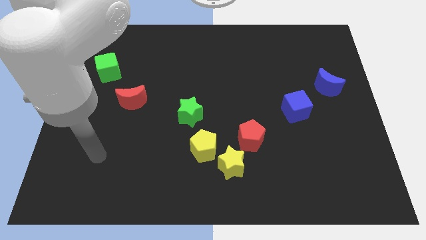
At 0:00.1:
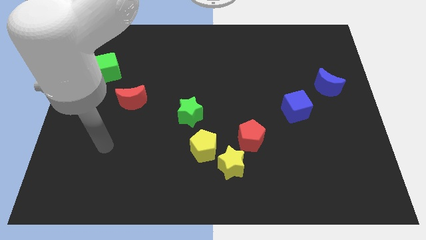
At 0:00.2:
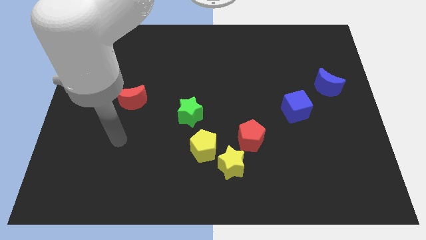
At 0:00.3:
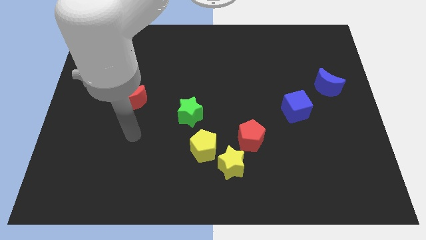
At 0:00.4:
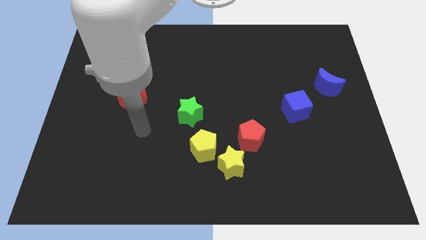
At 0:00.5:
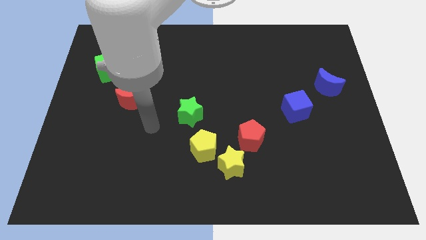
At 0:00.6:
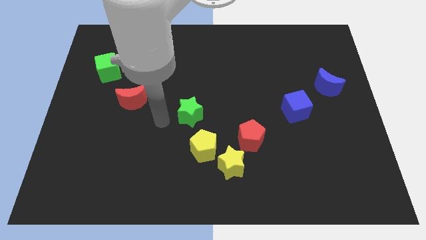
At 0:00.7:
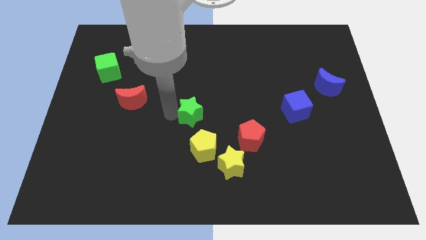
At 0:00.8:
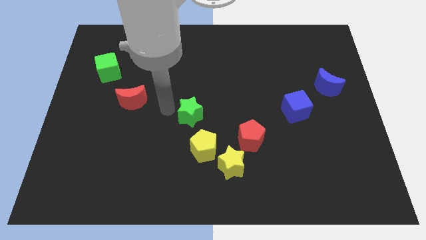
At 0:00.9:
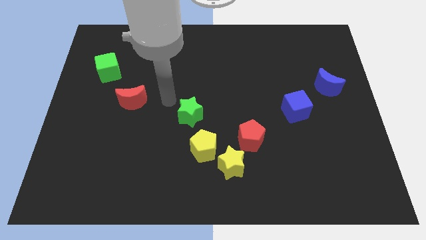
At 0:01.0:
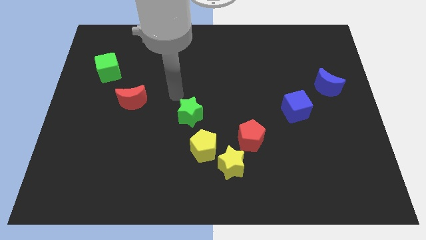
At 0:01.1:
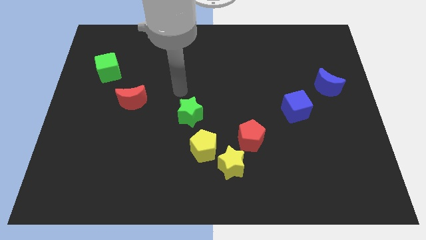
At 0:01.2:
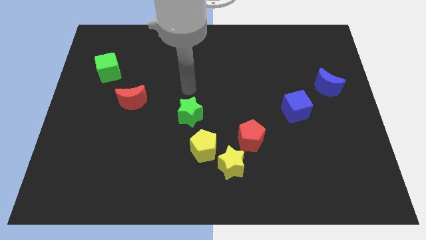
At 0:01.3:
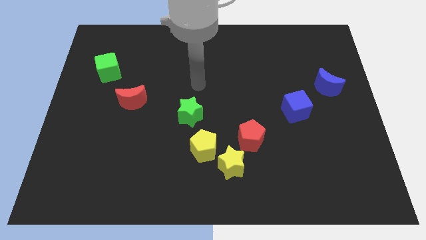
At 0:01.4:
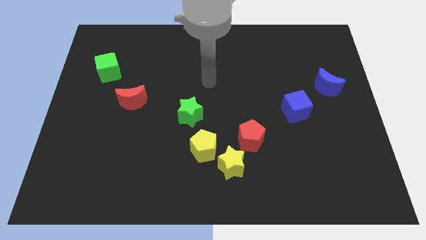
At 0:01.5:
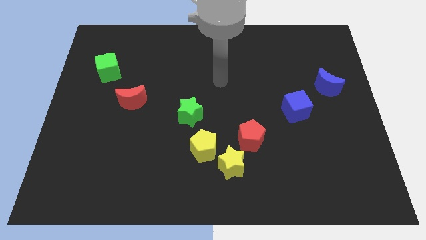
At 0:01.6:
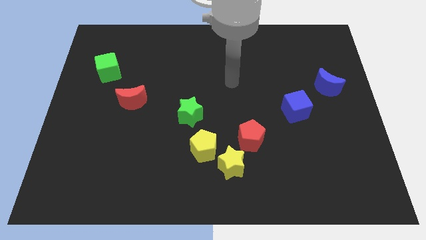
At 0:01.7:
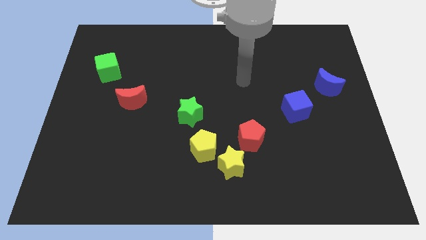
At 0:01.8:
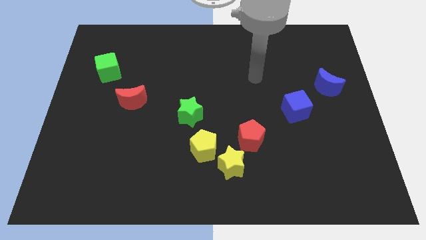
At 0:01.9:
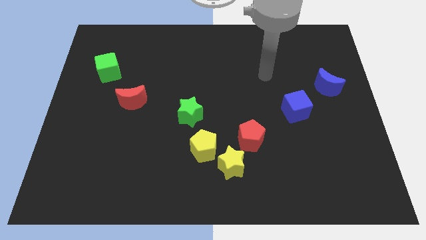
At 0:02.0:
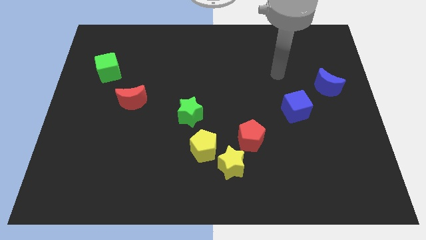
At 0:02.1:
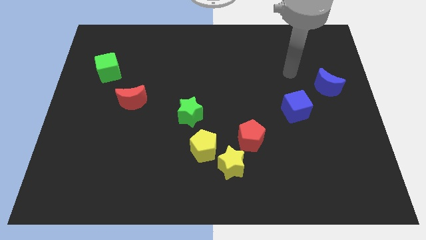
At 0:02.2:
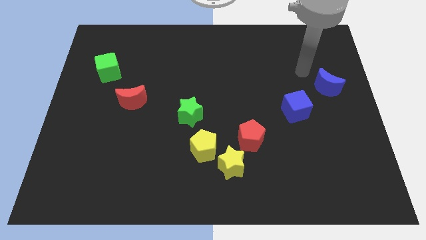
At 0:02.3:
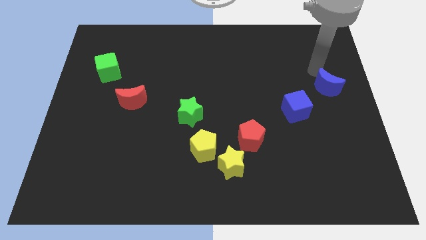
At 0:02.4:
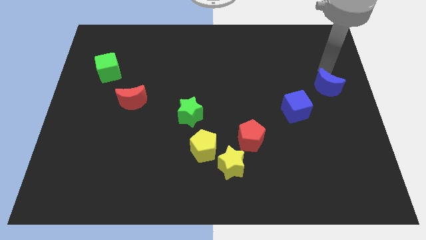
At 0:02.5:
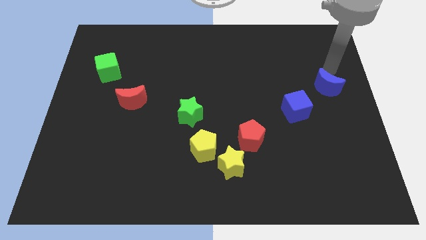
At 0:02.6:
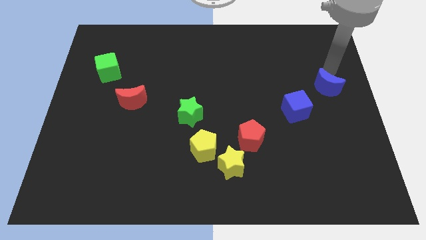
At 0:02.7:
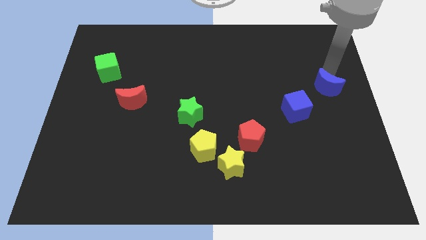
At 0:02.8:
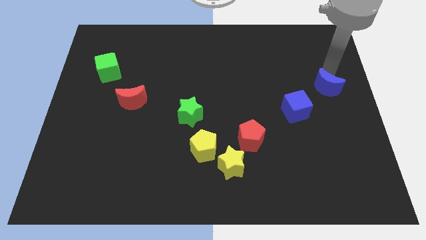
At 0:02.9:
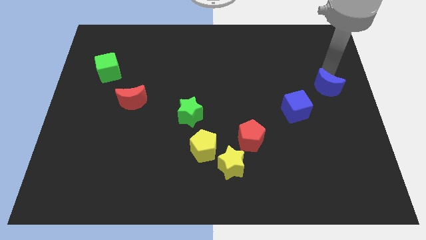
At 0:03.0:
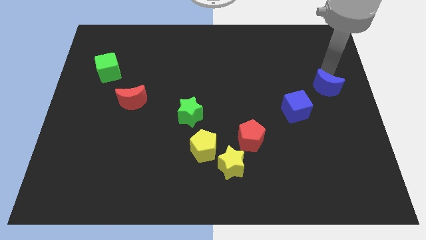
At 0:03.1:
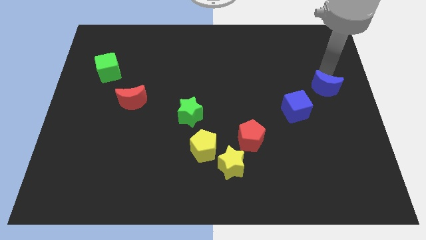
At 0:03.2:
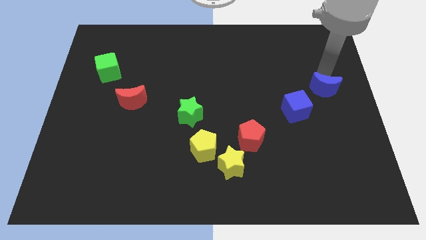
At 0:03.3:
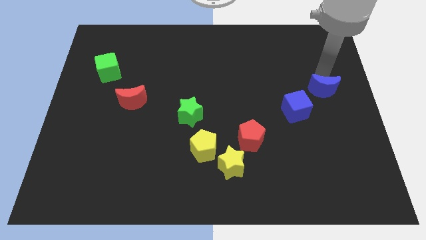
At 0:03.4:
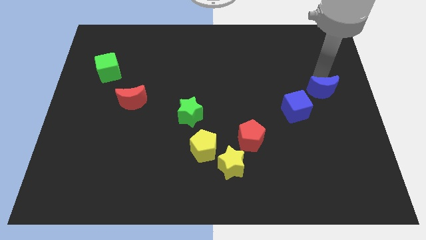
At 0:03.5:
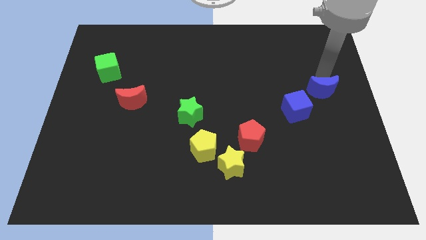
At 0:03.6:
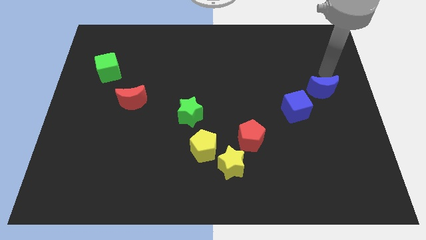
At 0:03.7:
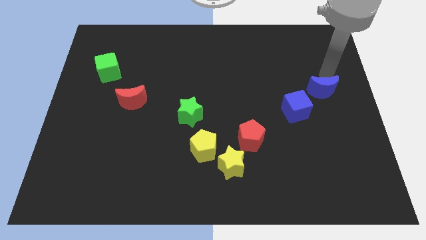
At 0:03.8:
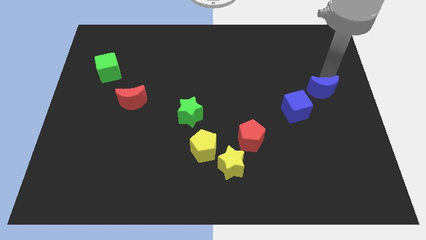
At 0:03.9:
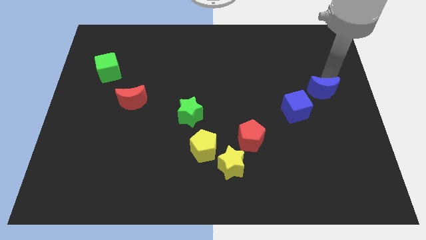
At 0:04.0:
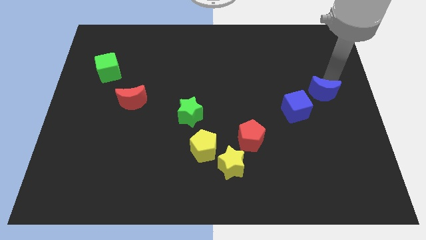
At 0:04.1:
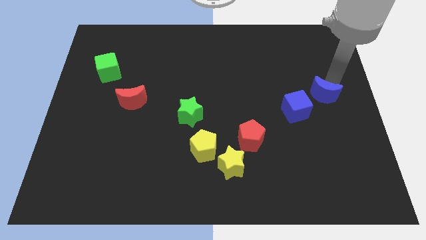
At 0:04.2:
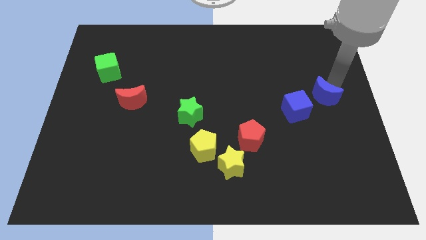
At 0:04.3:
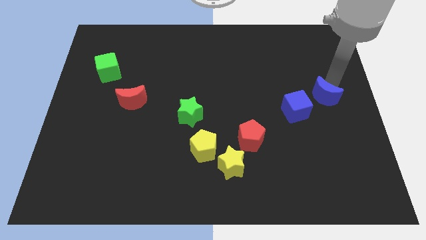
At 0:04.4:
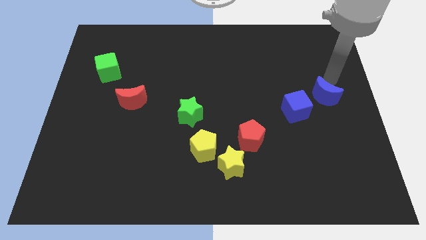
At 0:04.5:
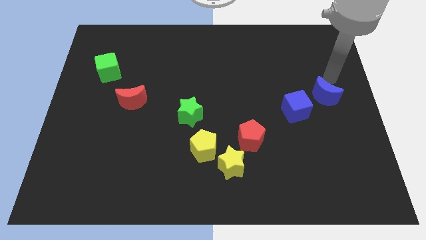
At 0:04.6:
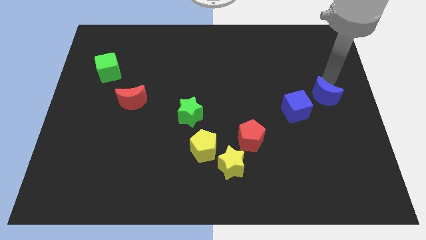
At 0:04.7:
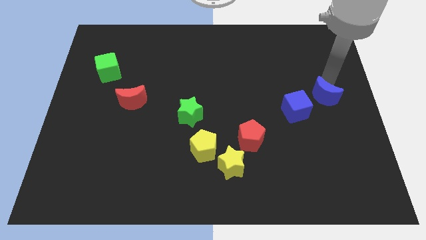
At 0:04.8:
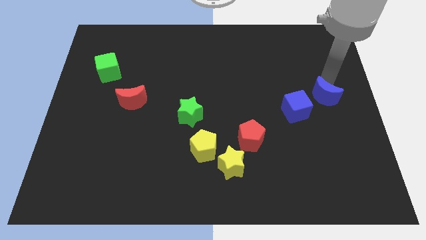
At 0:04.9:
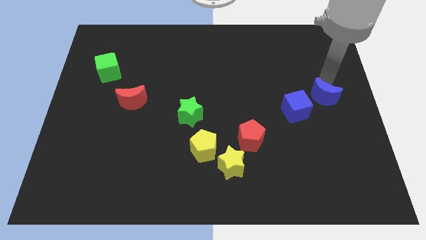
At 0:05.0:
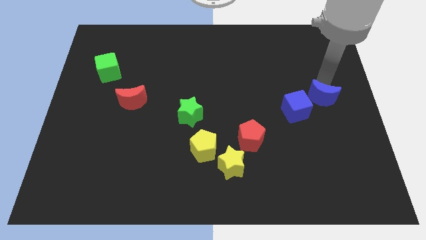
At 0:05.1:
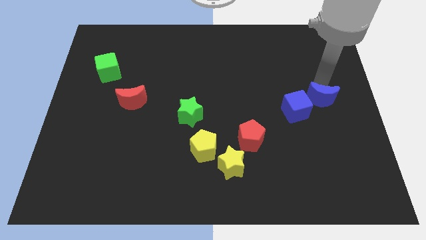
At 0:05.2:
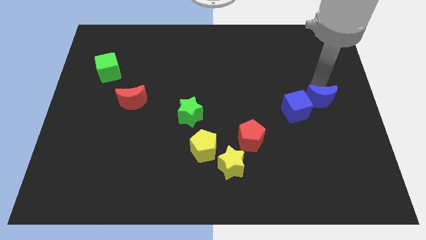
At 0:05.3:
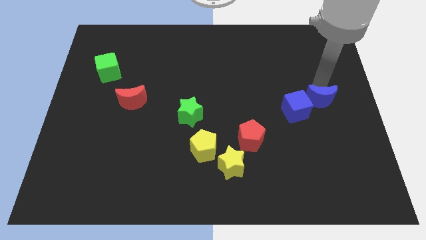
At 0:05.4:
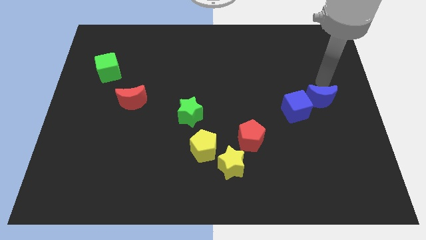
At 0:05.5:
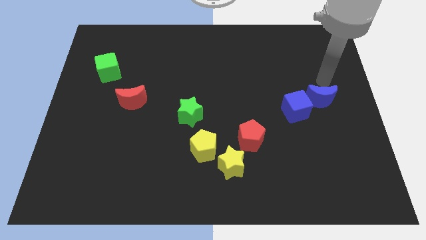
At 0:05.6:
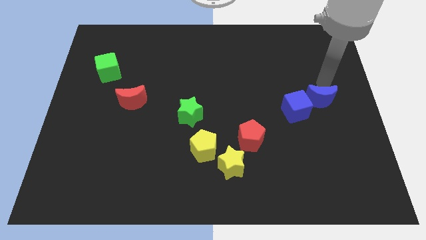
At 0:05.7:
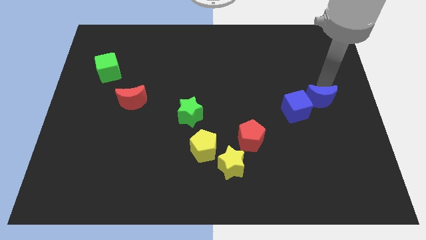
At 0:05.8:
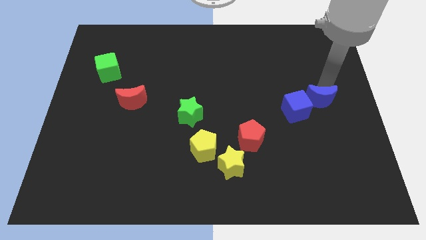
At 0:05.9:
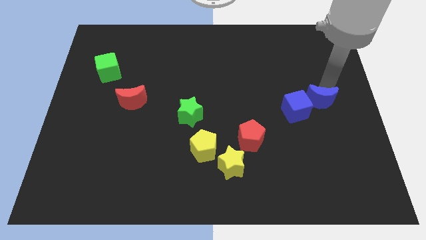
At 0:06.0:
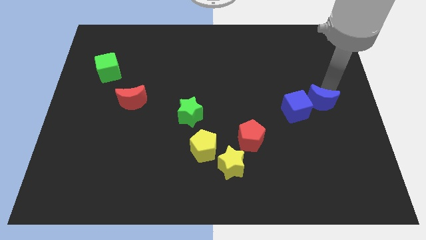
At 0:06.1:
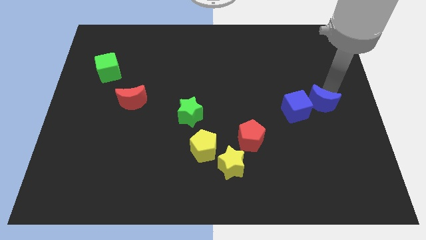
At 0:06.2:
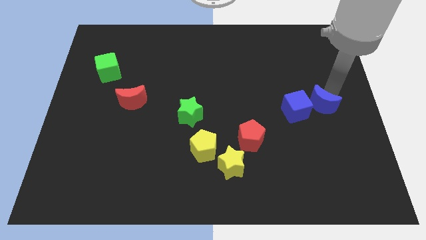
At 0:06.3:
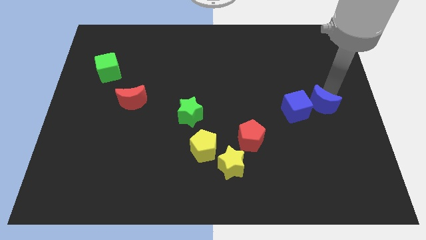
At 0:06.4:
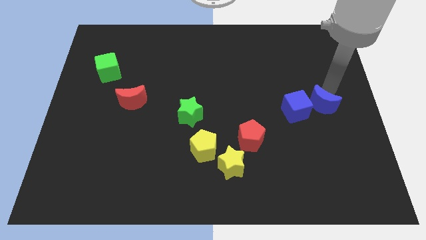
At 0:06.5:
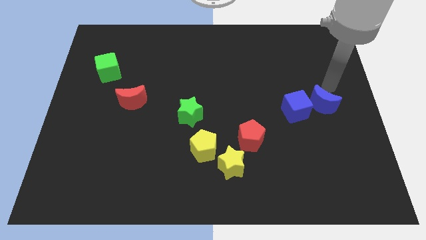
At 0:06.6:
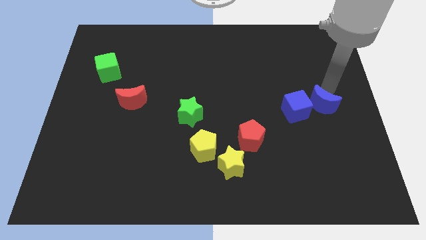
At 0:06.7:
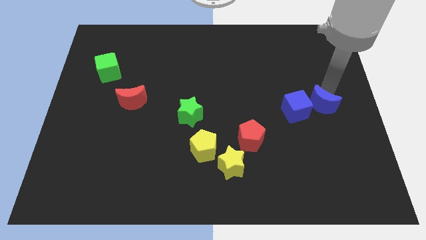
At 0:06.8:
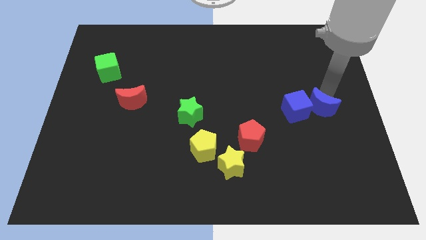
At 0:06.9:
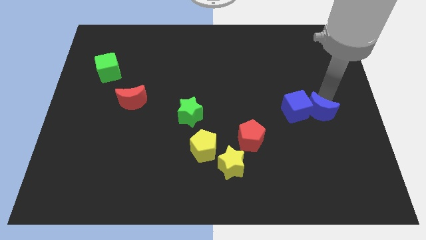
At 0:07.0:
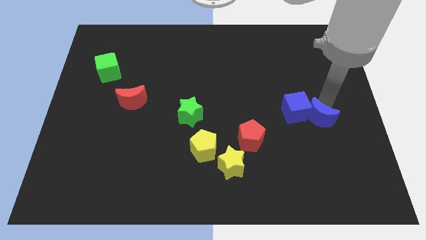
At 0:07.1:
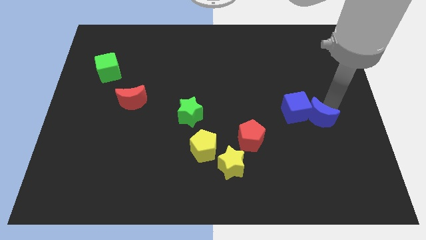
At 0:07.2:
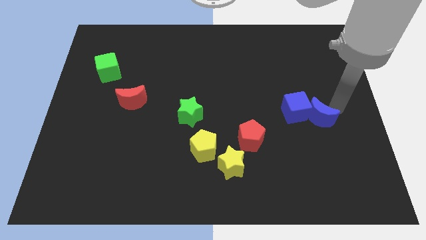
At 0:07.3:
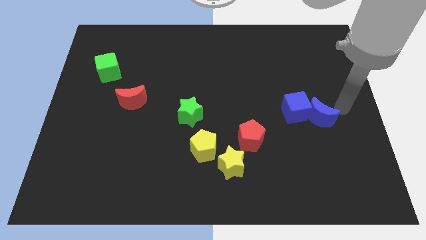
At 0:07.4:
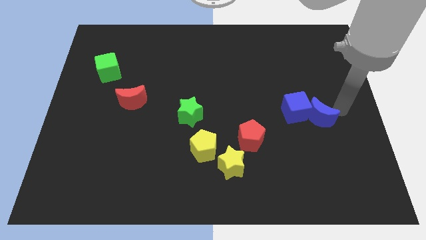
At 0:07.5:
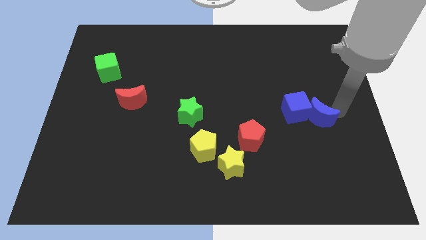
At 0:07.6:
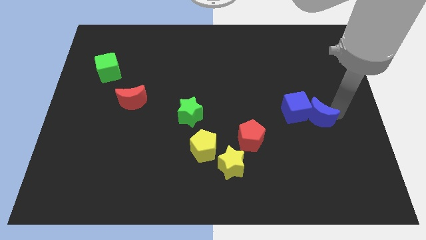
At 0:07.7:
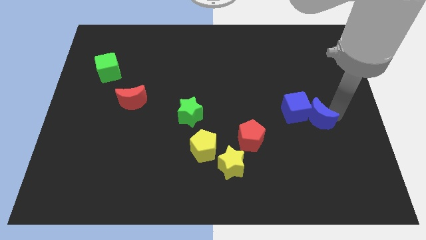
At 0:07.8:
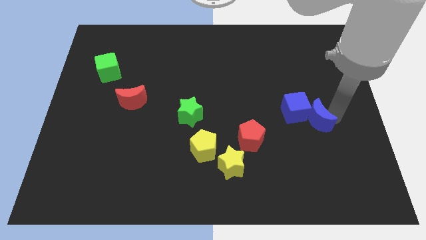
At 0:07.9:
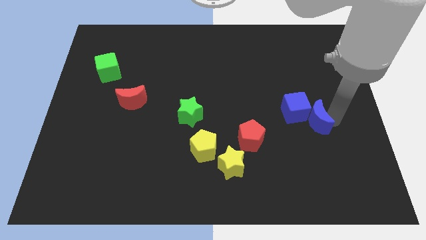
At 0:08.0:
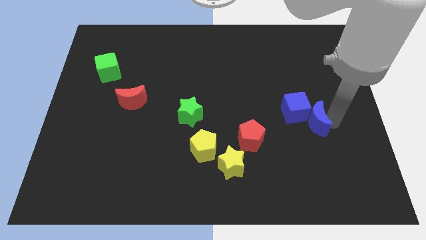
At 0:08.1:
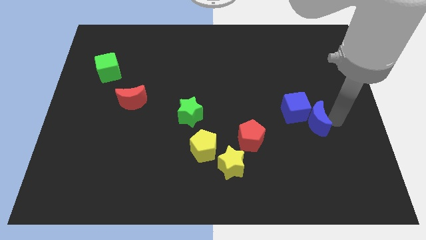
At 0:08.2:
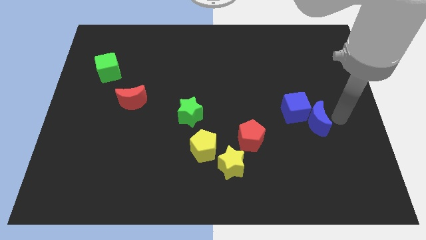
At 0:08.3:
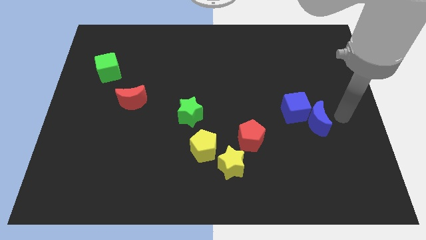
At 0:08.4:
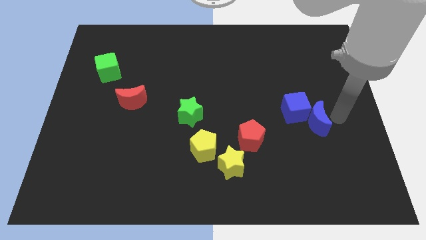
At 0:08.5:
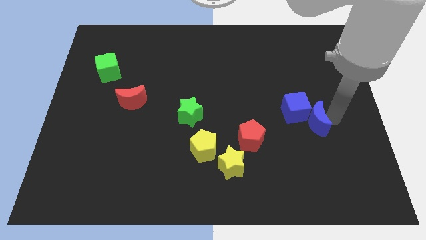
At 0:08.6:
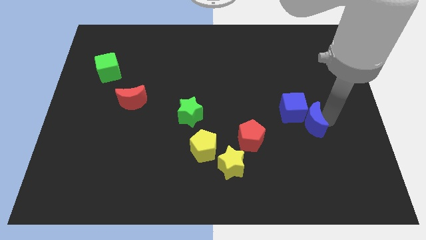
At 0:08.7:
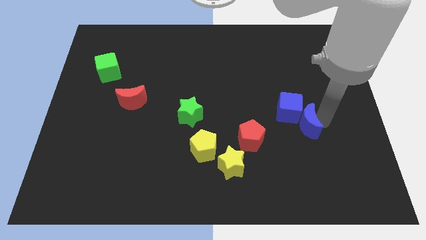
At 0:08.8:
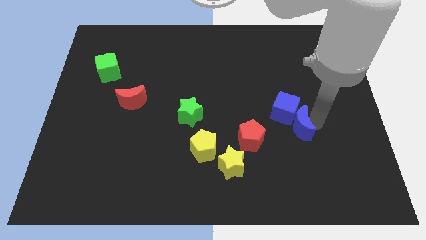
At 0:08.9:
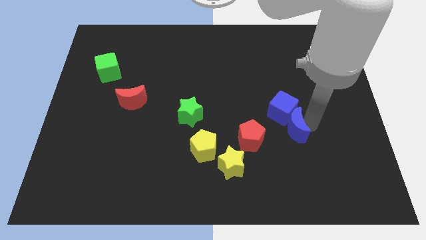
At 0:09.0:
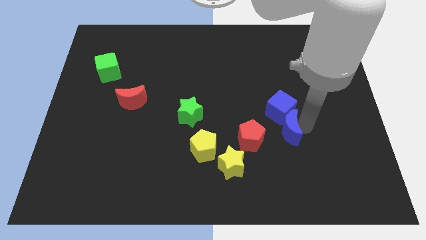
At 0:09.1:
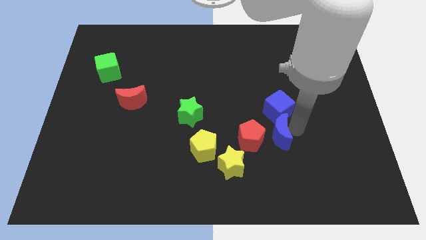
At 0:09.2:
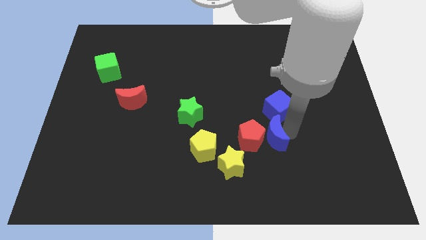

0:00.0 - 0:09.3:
push the blue moon next to the red pentagon
